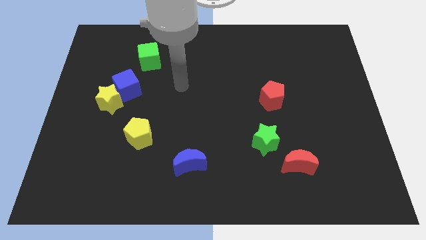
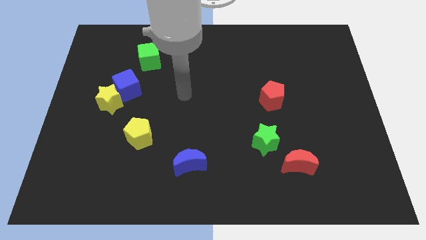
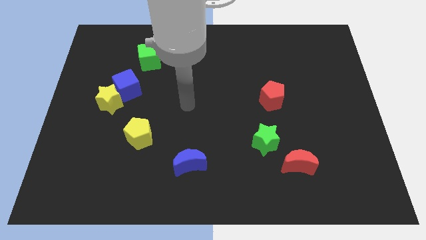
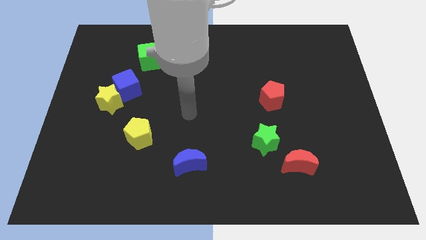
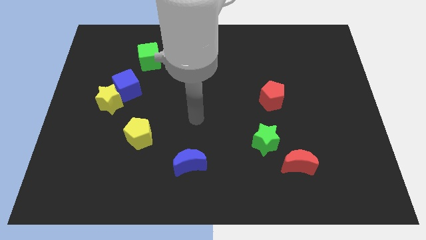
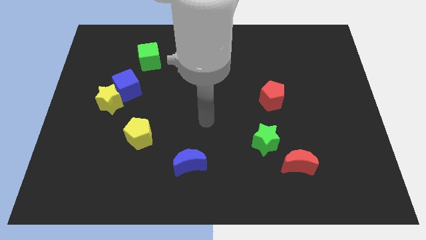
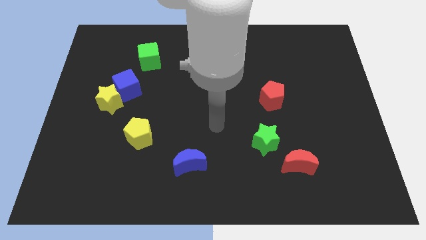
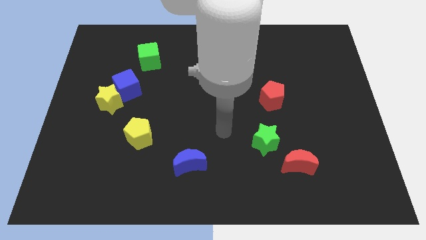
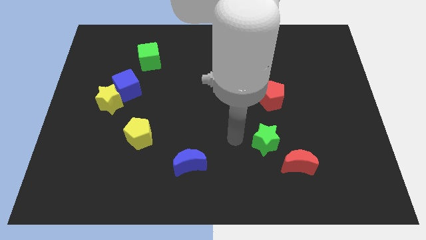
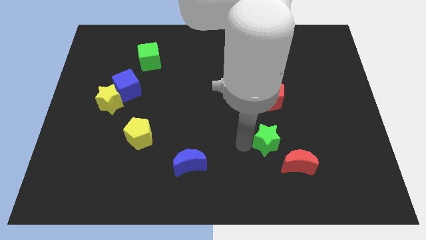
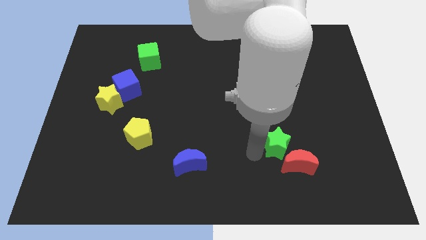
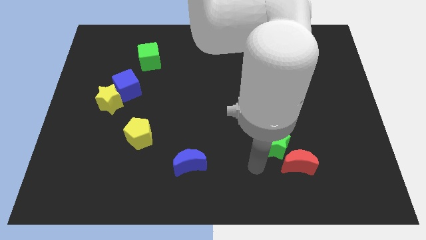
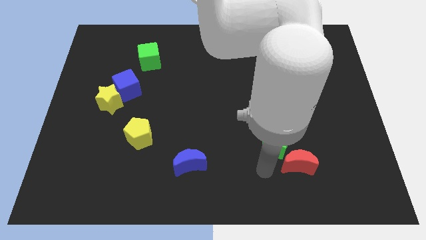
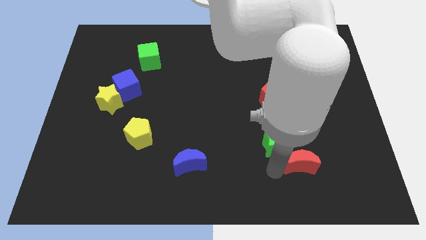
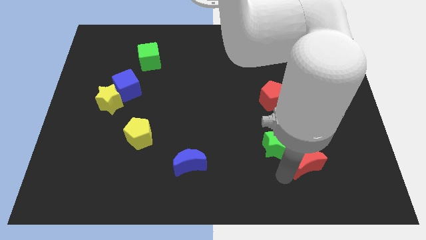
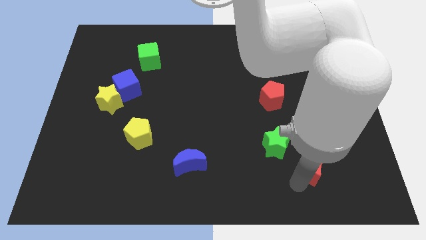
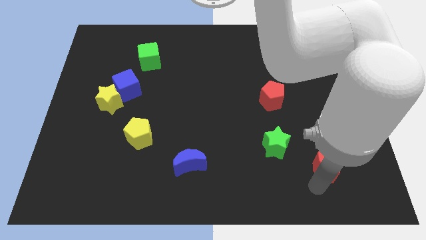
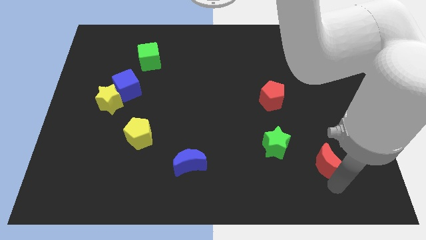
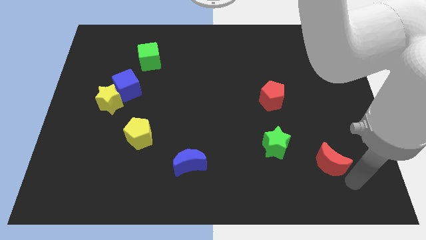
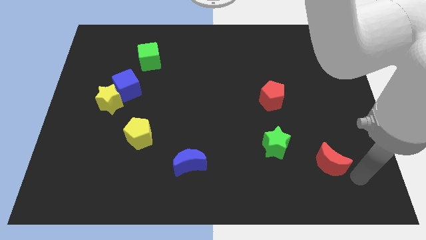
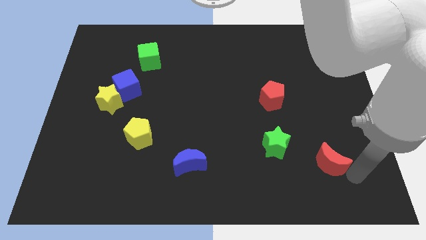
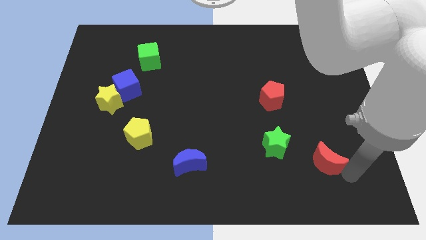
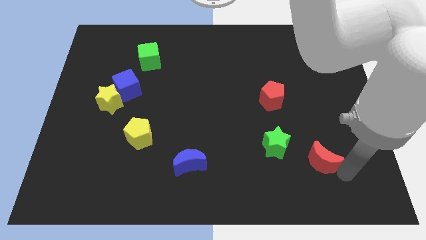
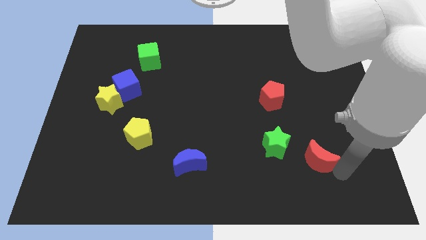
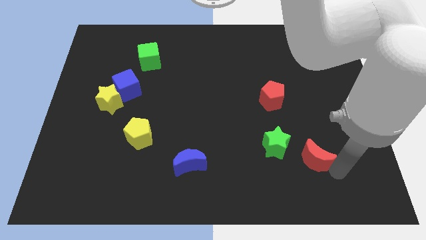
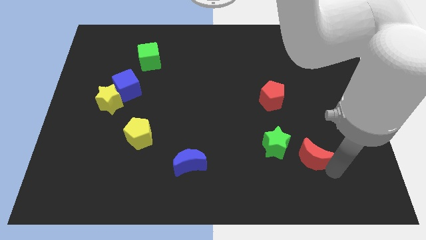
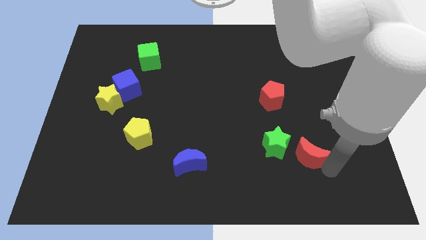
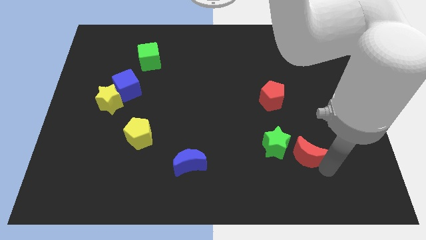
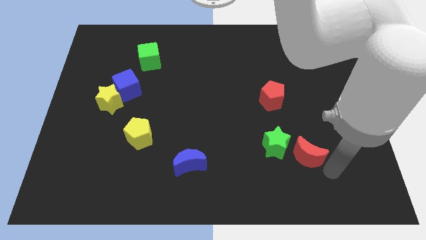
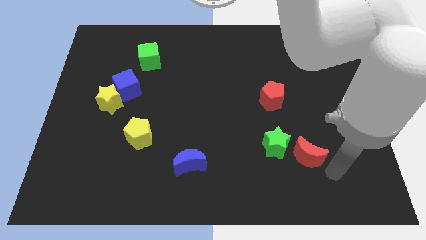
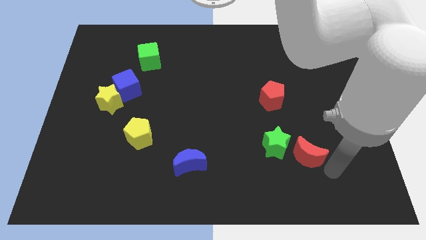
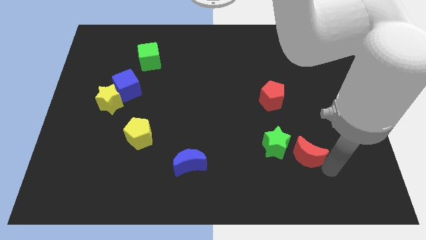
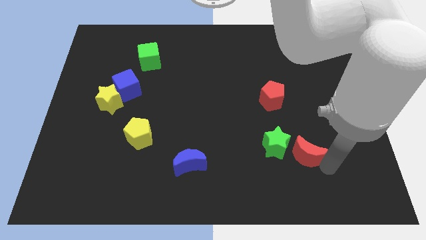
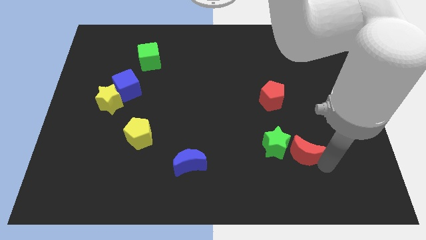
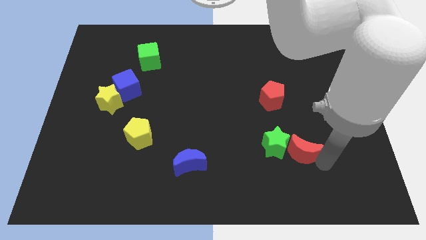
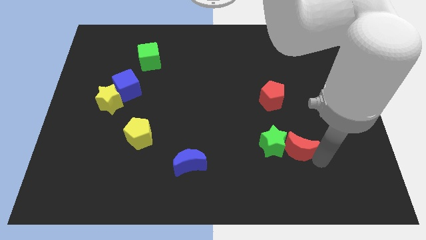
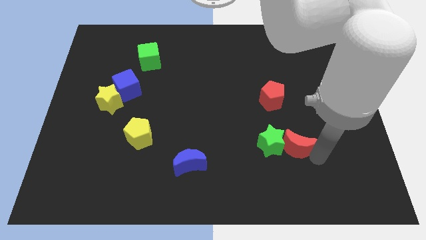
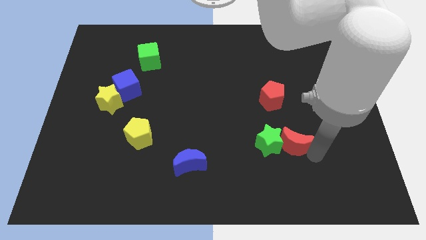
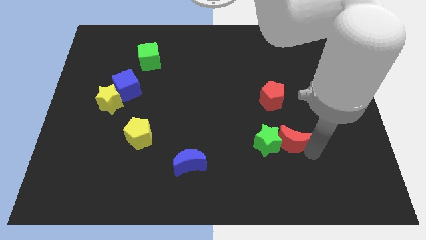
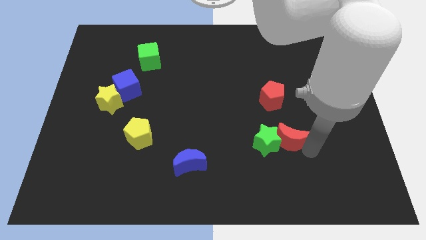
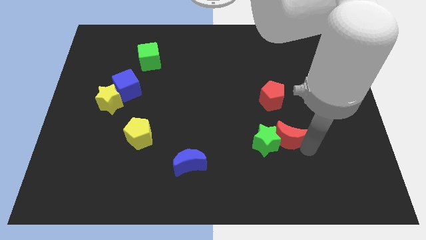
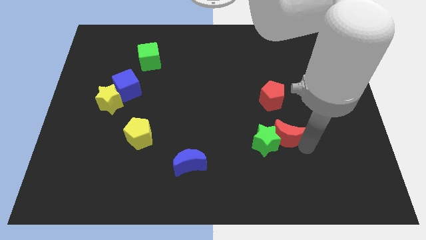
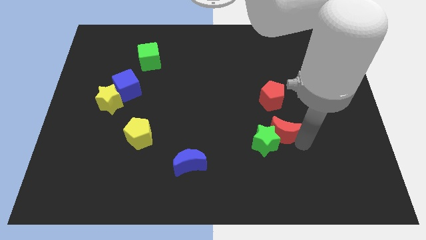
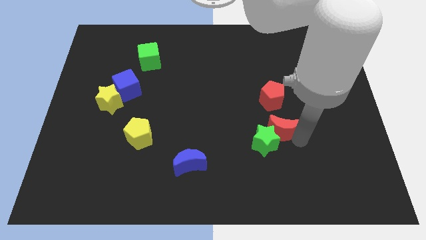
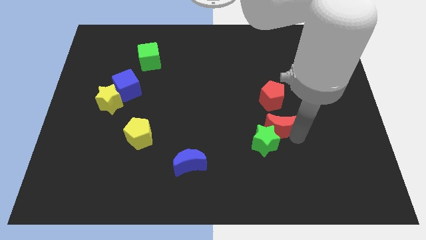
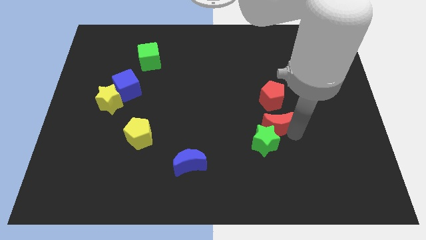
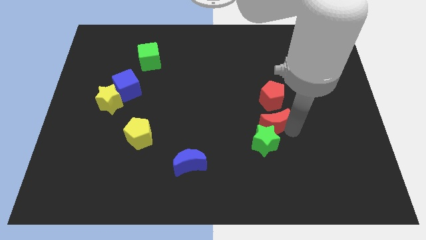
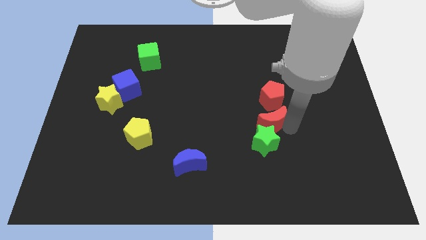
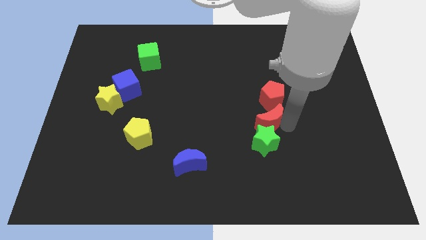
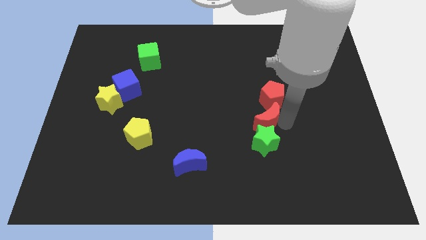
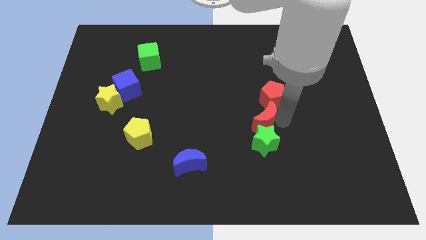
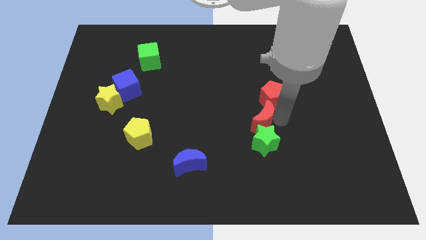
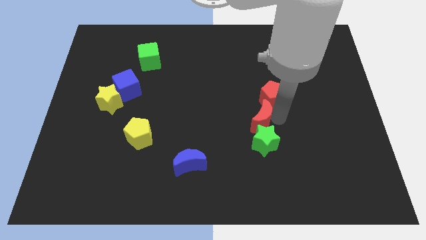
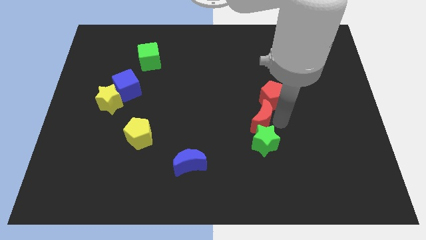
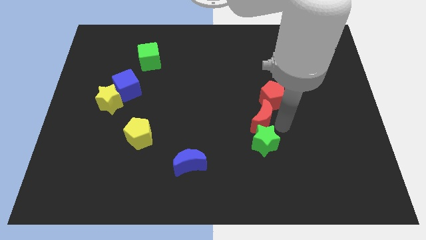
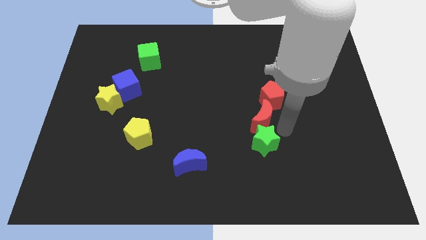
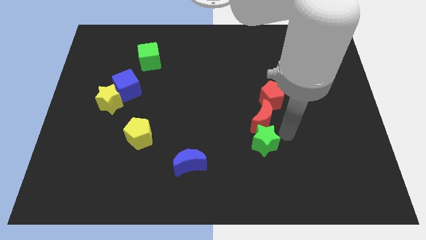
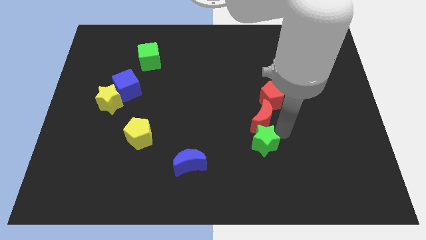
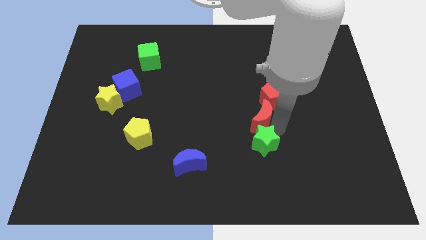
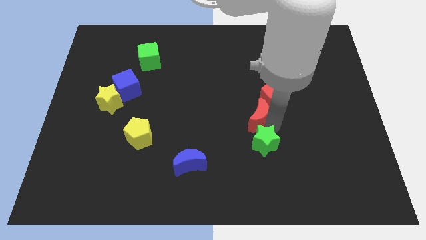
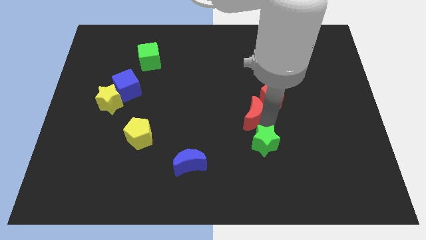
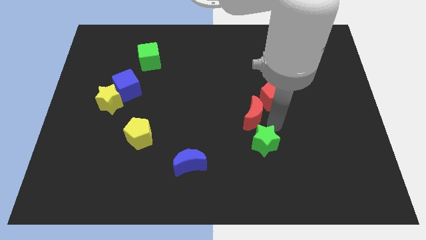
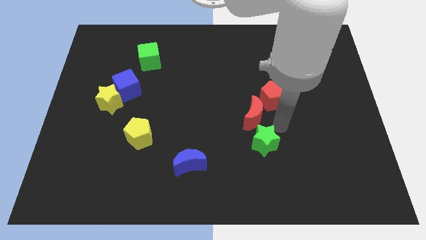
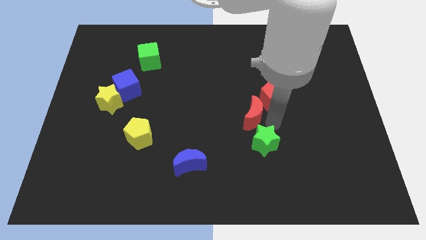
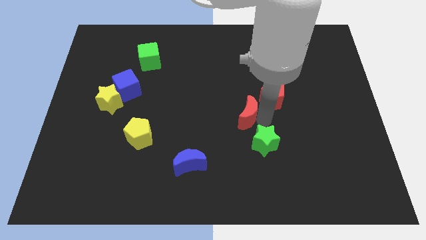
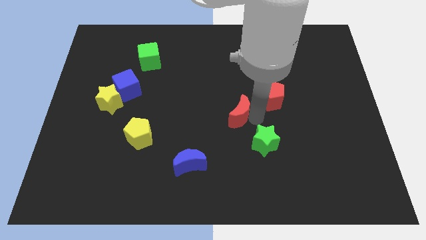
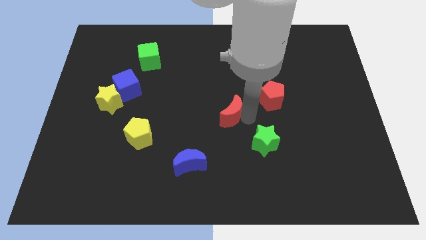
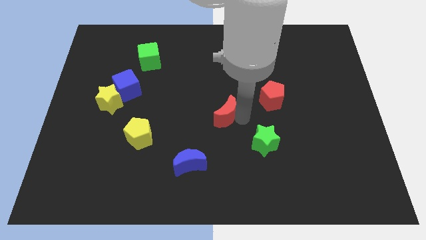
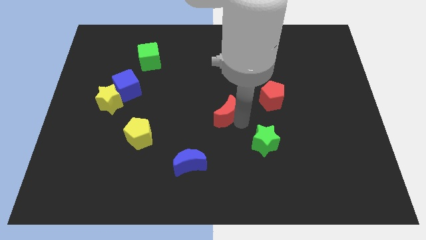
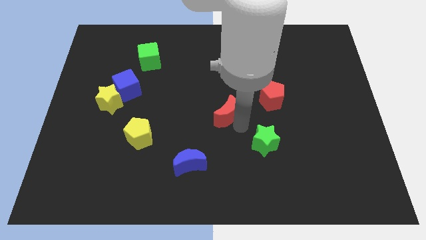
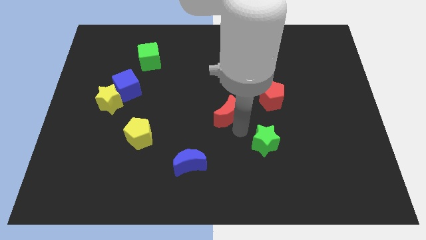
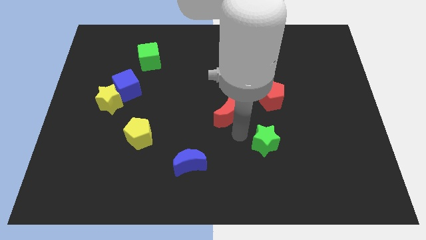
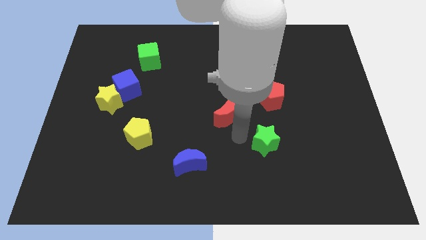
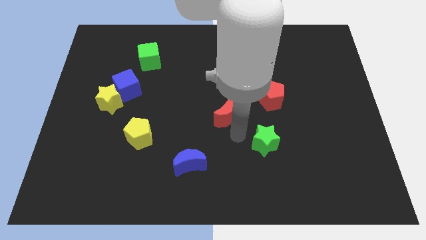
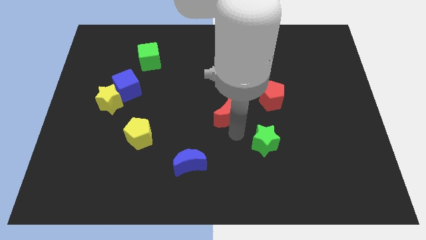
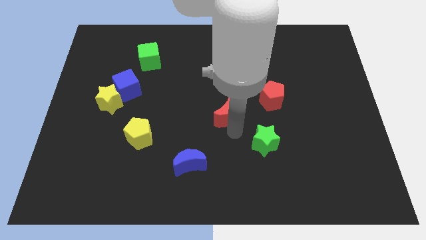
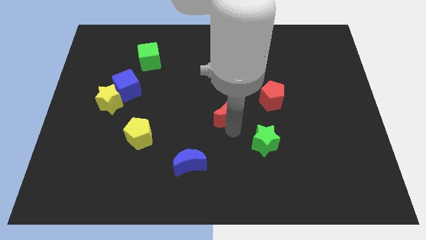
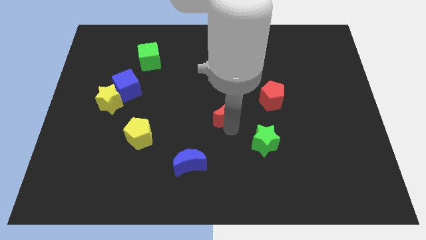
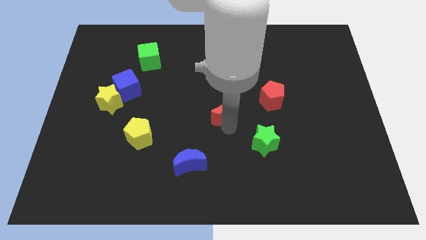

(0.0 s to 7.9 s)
move the red moon upwards and to the left

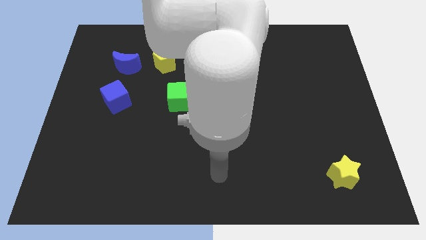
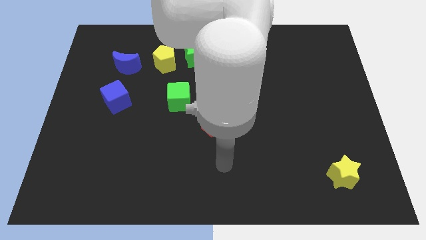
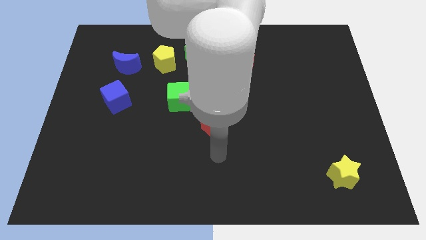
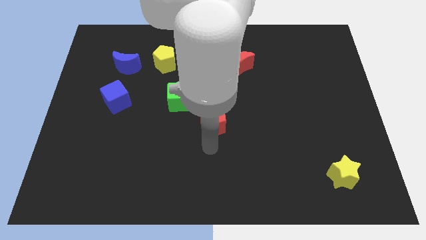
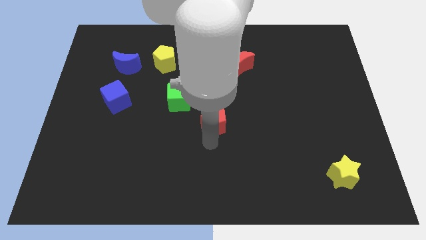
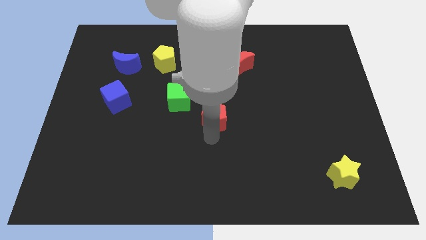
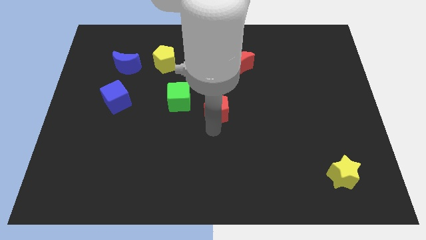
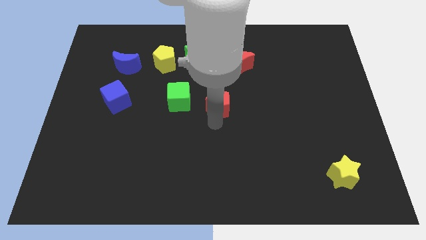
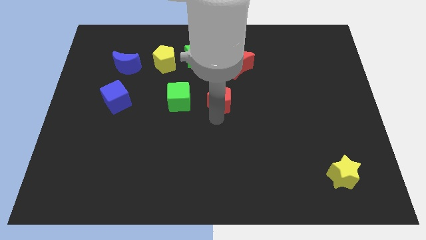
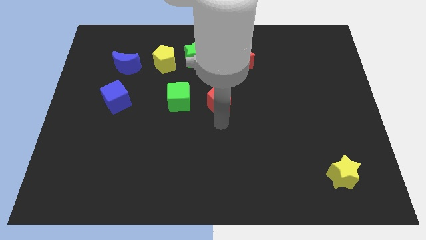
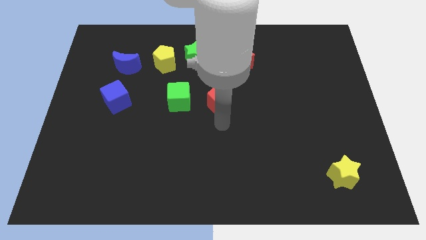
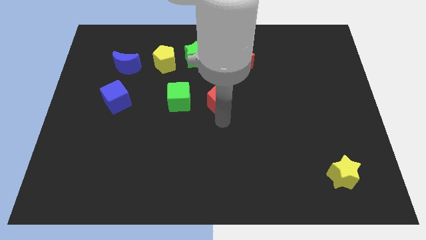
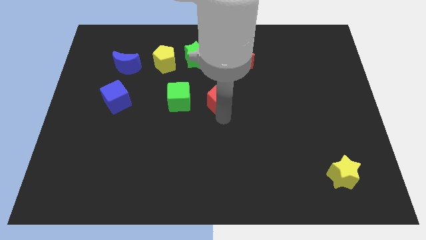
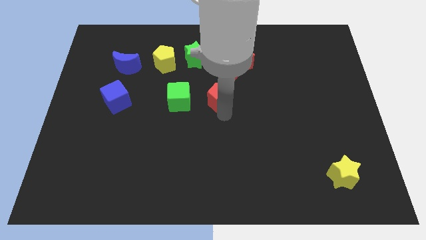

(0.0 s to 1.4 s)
slightly slide the red pentagon upwards
